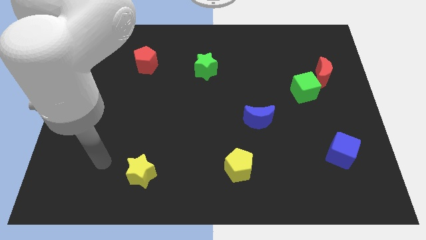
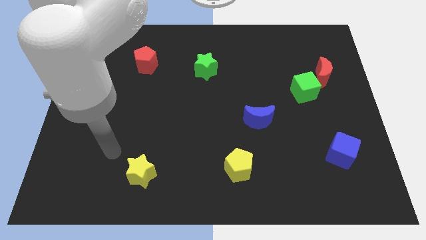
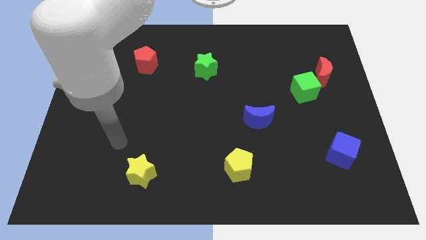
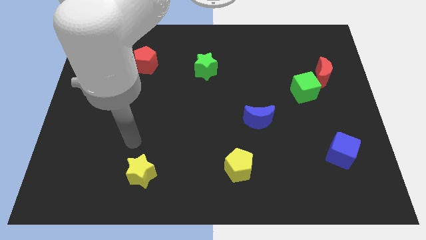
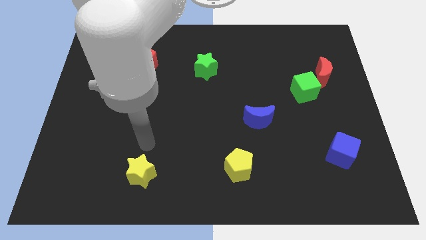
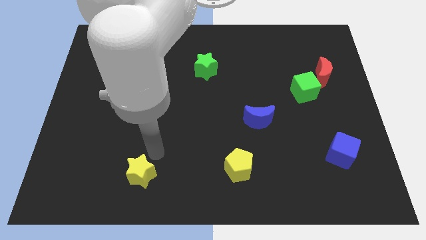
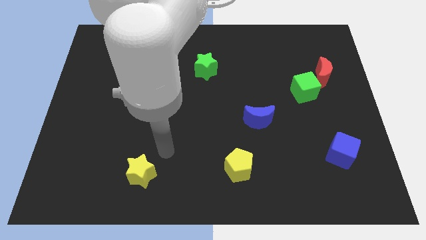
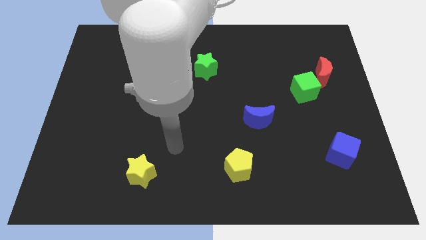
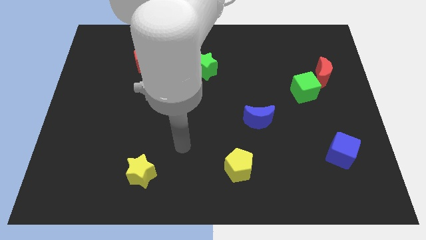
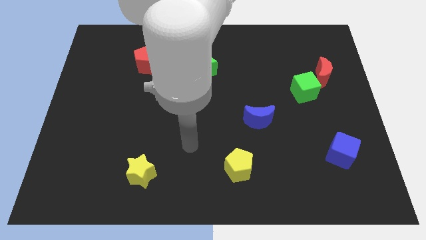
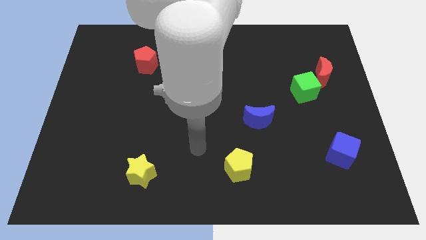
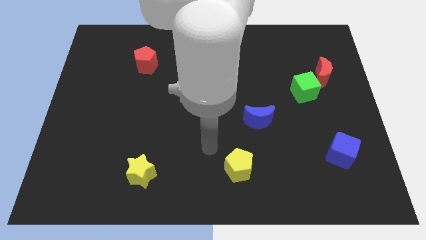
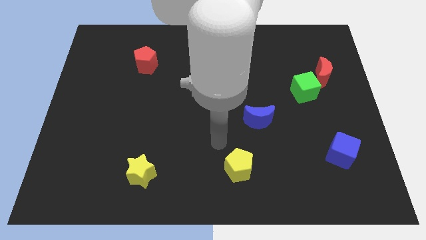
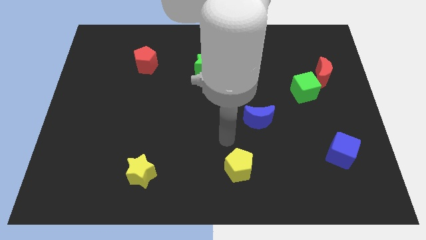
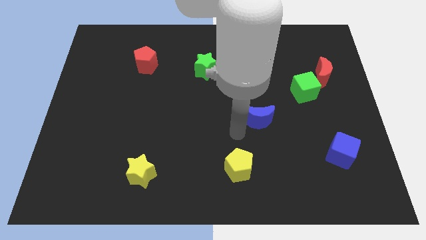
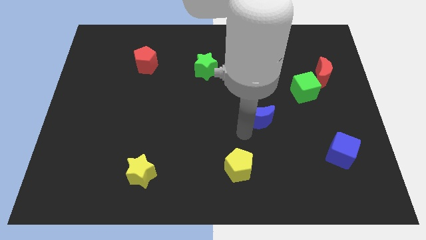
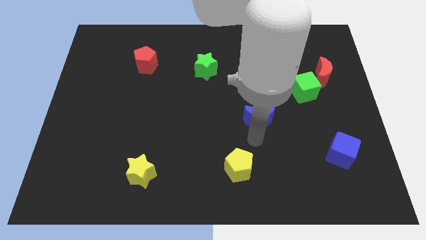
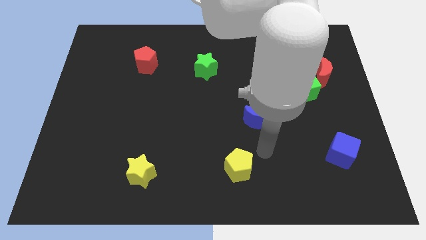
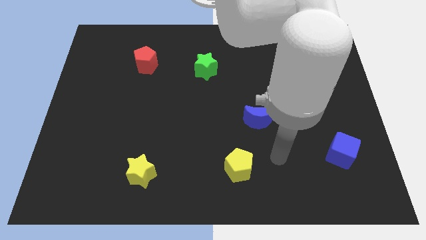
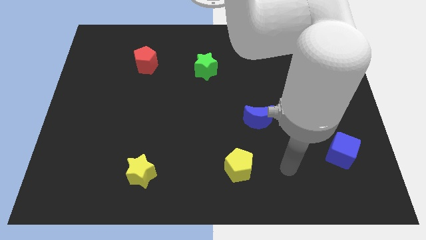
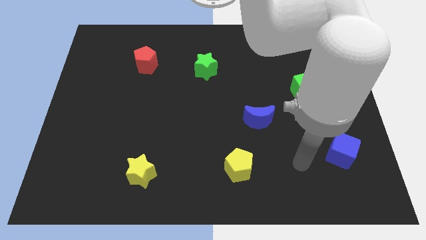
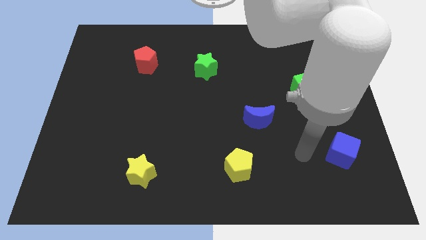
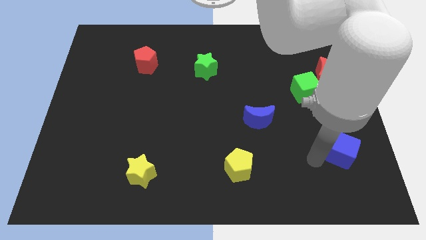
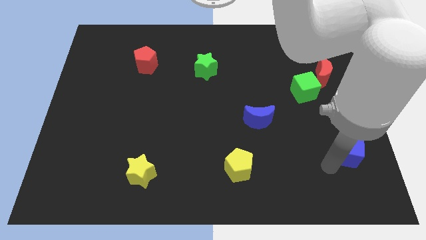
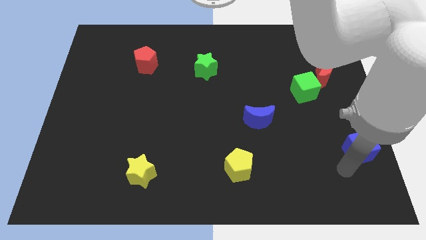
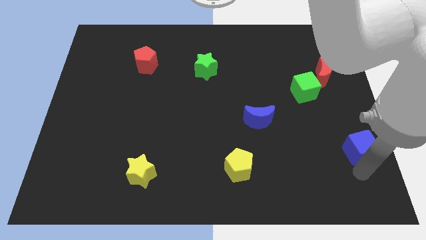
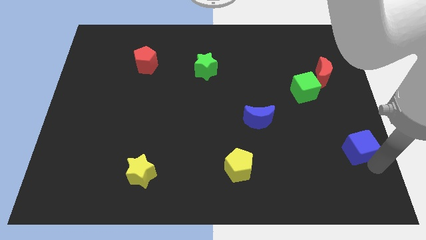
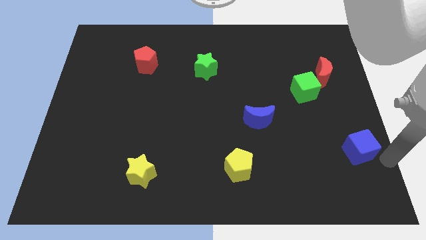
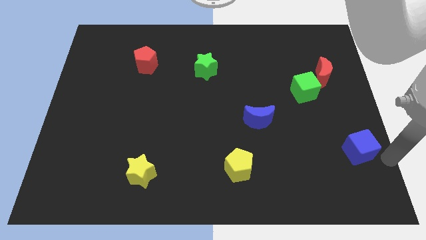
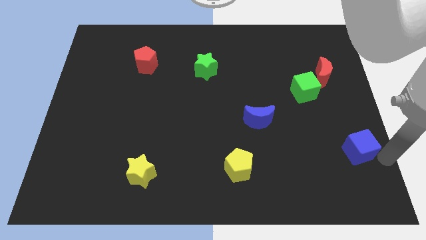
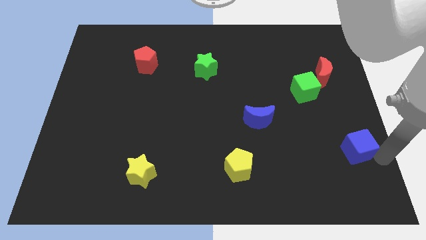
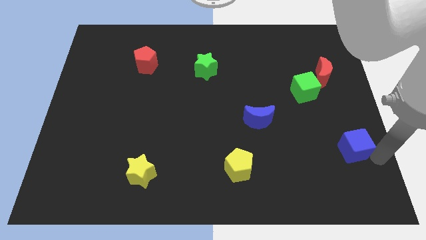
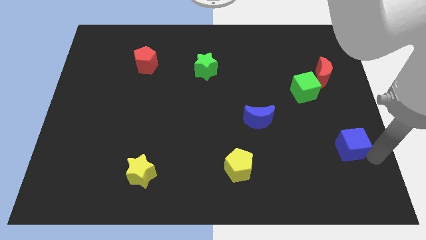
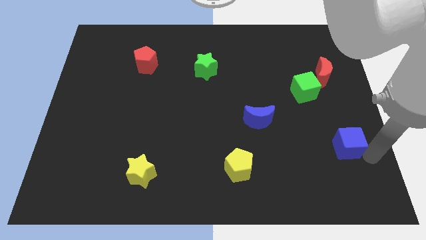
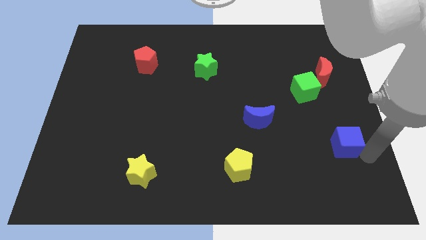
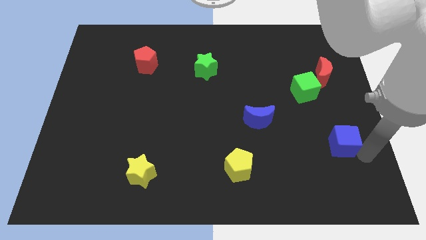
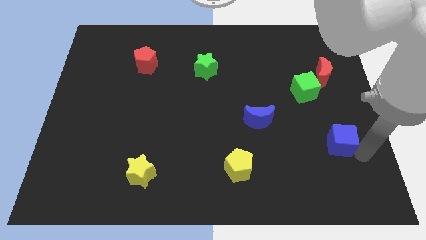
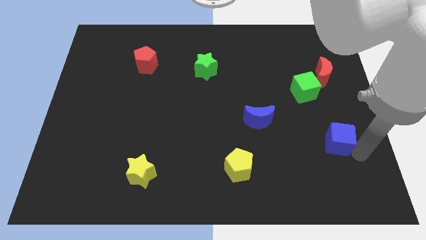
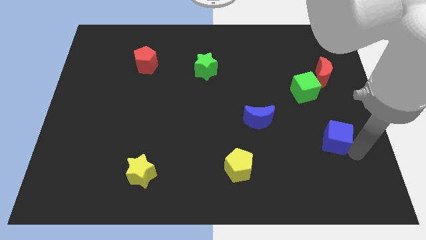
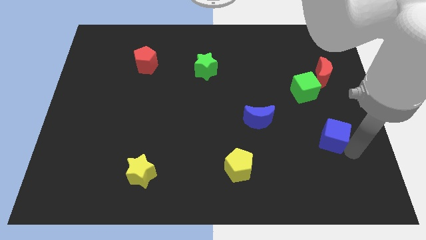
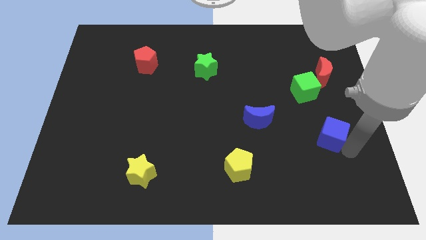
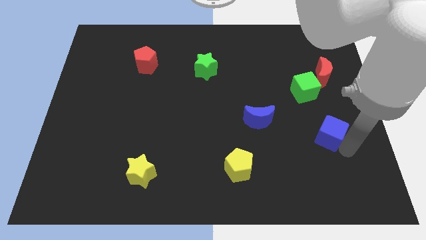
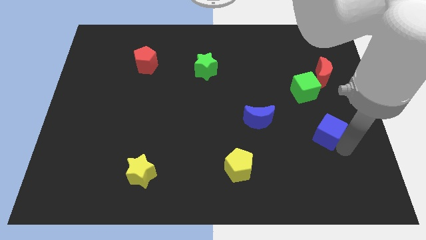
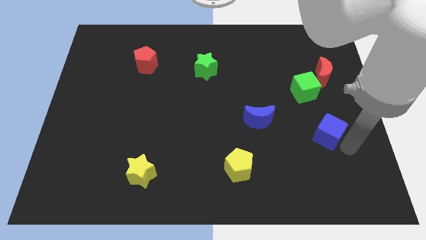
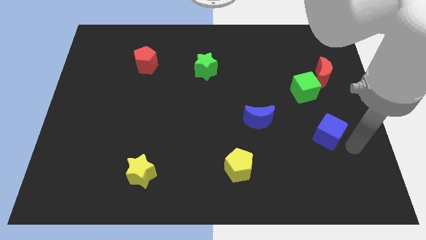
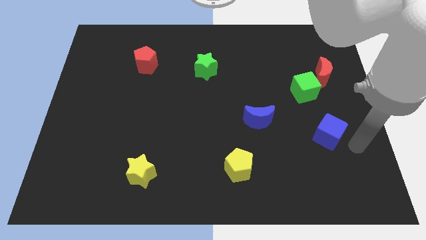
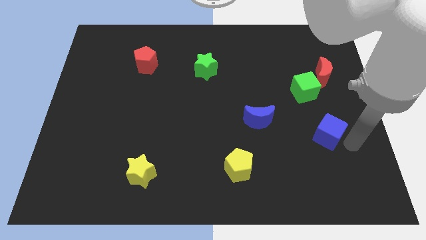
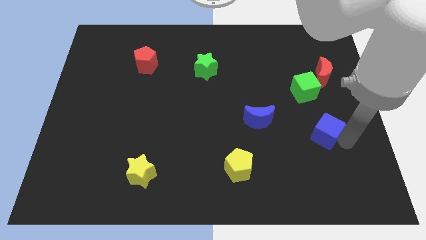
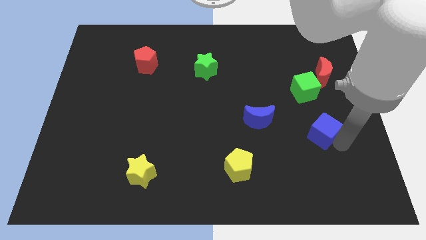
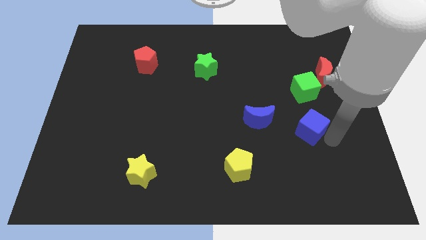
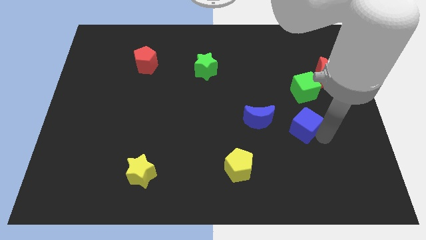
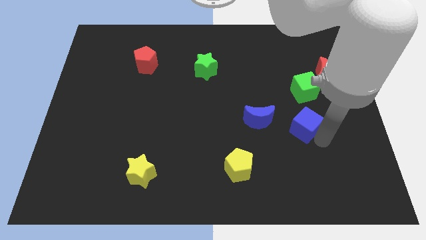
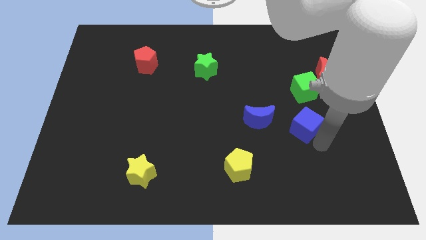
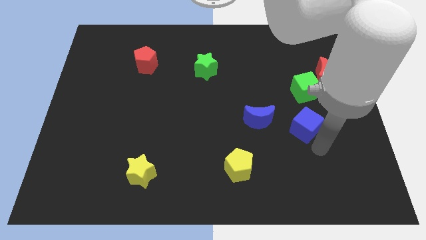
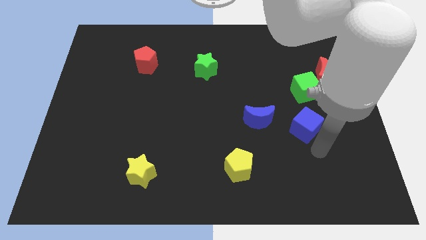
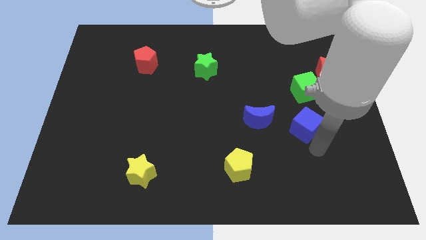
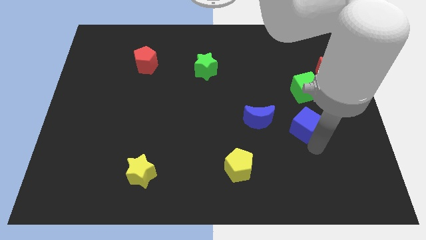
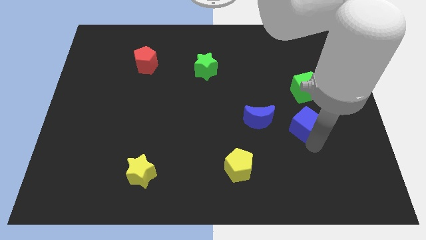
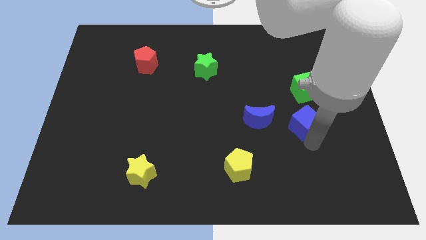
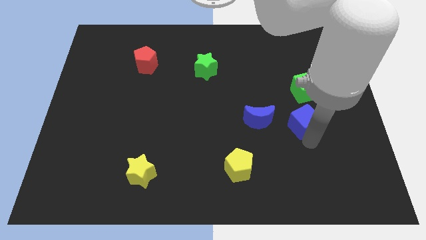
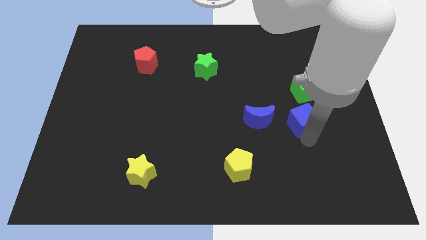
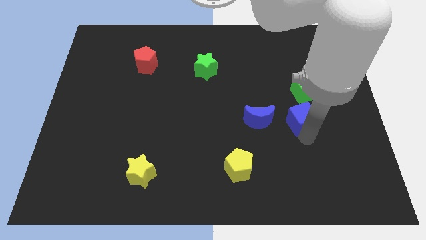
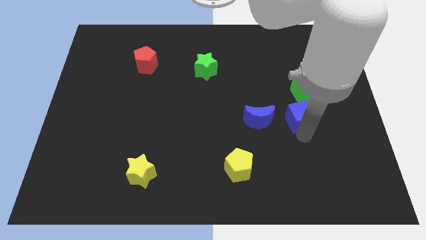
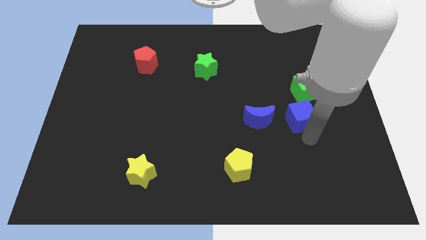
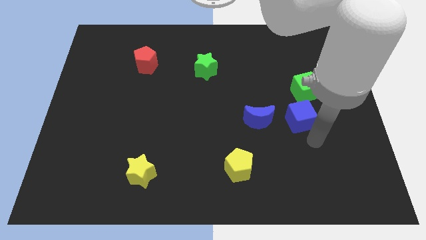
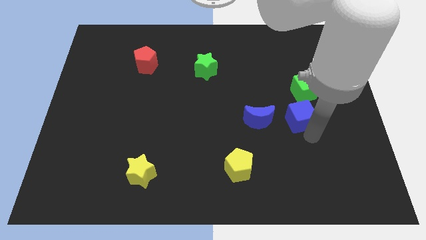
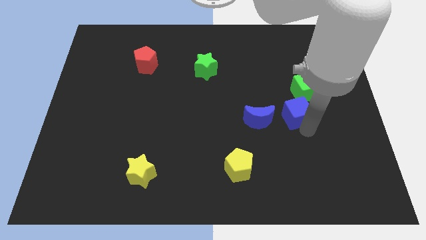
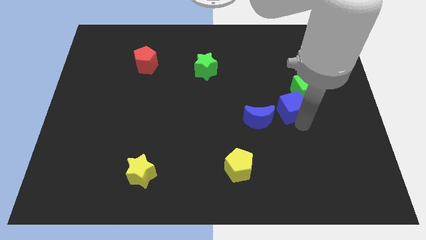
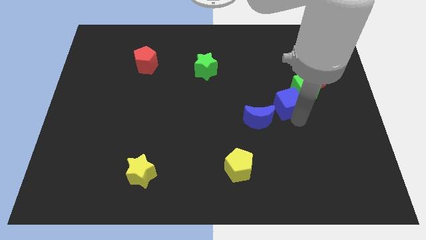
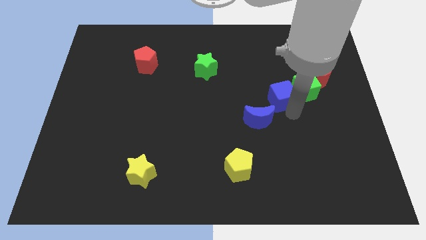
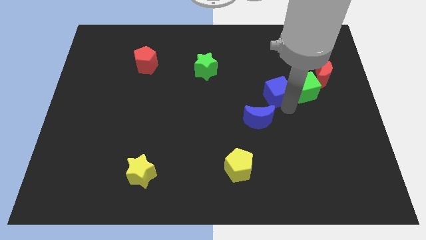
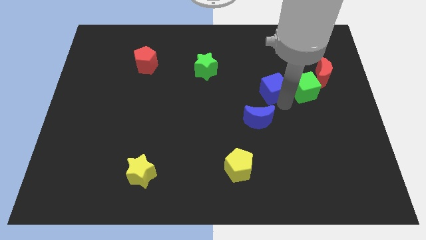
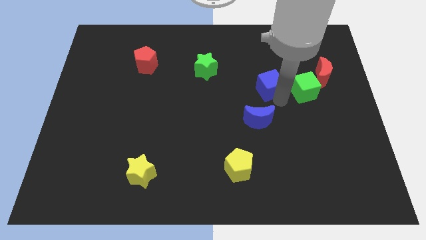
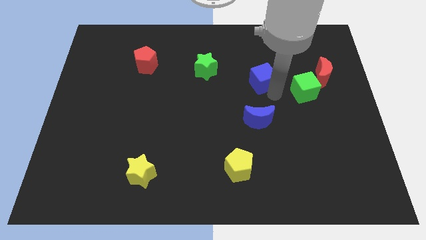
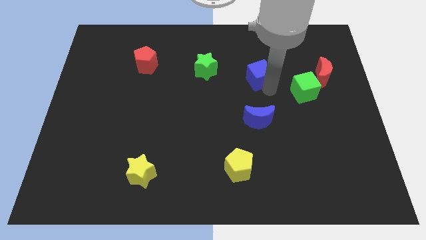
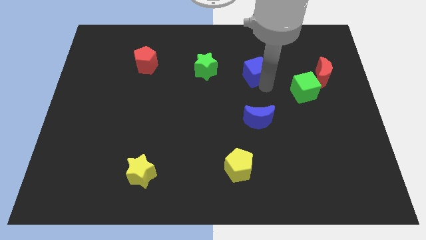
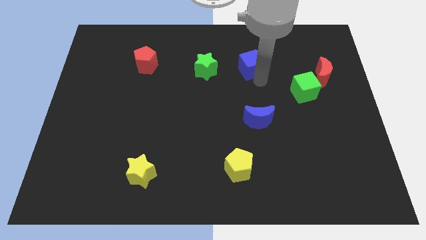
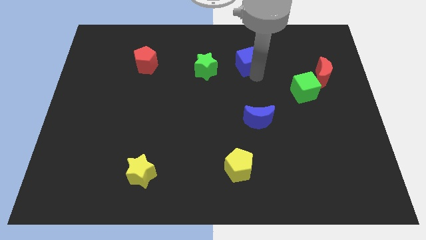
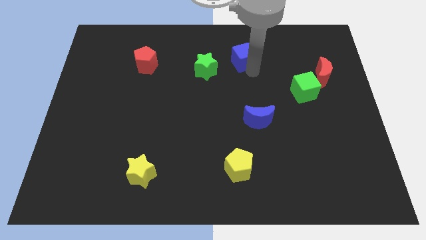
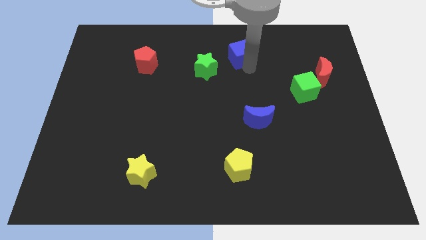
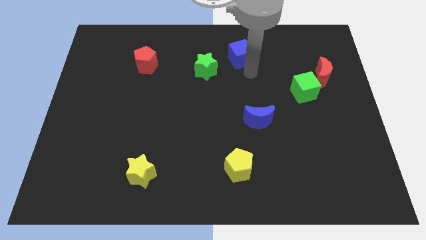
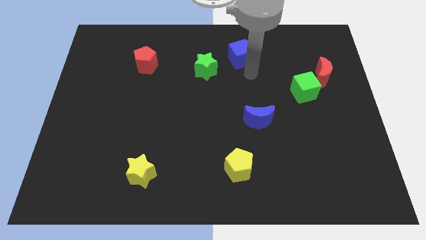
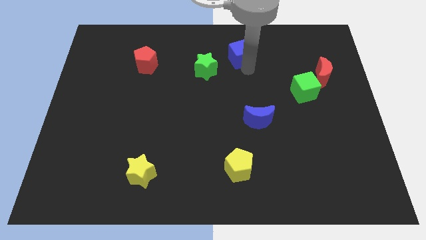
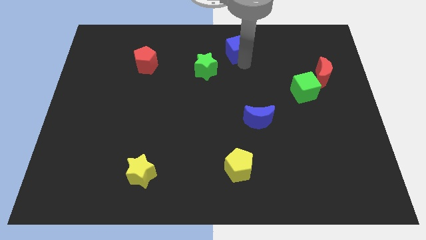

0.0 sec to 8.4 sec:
move the blue cube to the top
